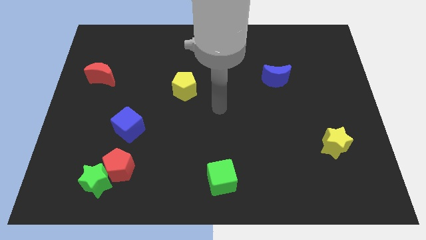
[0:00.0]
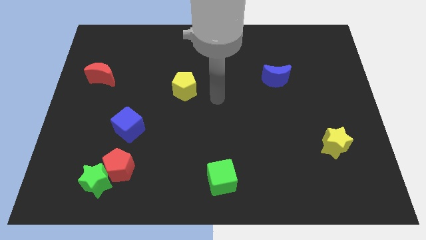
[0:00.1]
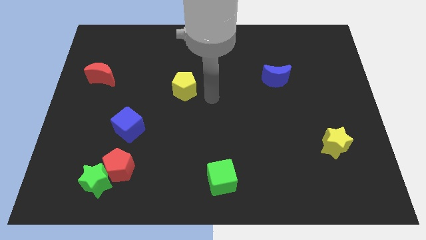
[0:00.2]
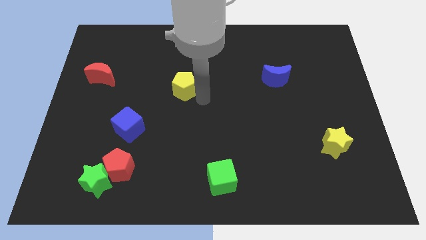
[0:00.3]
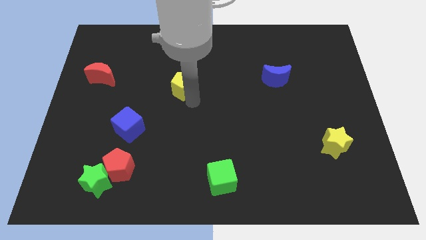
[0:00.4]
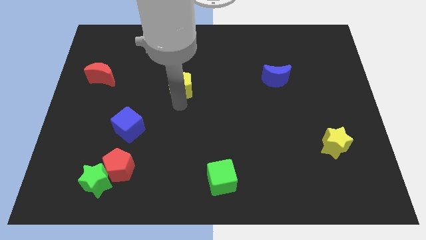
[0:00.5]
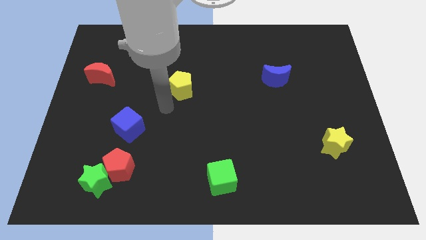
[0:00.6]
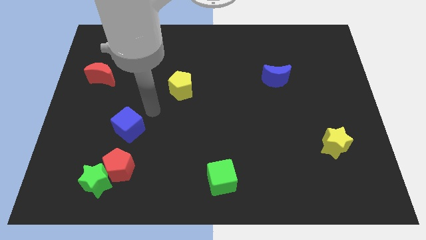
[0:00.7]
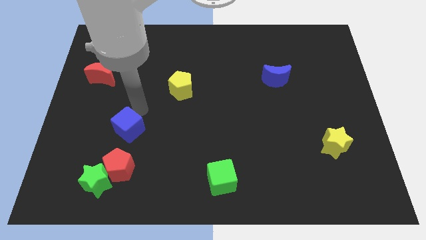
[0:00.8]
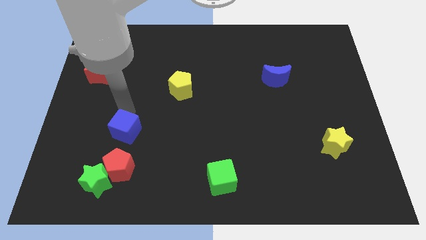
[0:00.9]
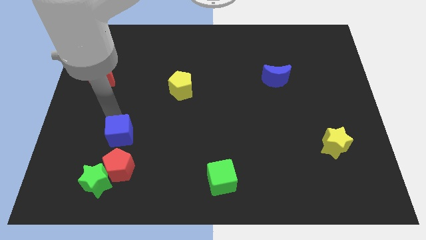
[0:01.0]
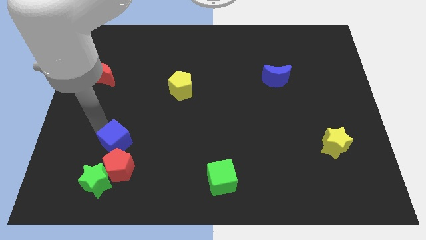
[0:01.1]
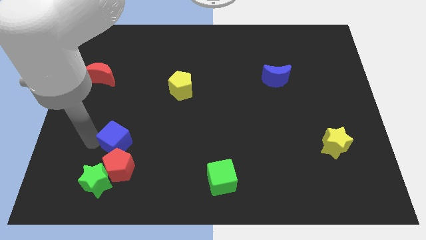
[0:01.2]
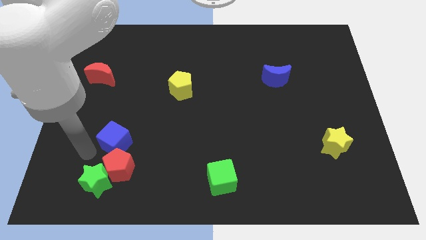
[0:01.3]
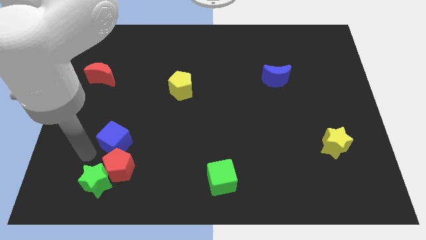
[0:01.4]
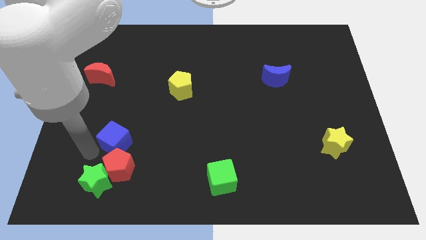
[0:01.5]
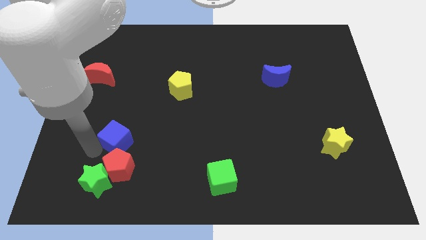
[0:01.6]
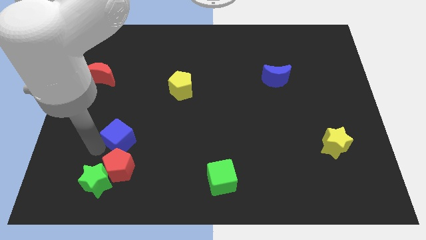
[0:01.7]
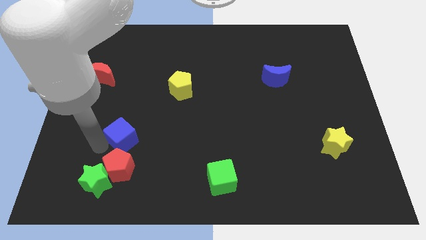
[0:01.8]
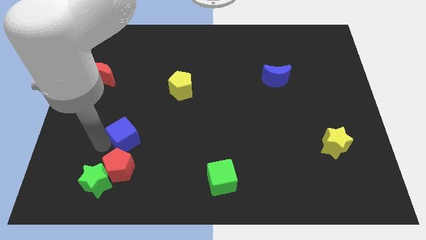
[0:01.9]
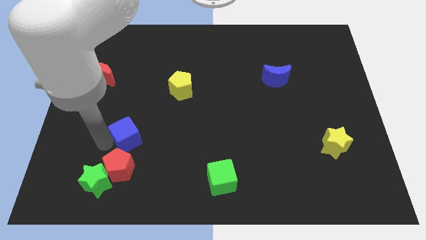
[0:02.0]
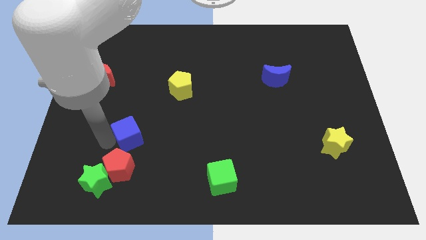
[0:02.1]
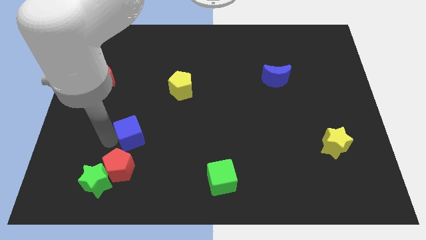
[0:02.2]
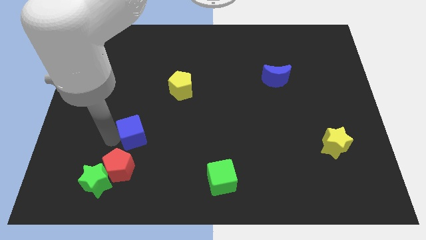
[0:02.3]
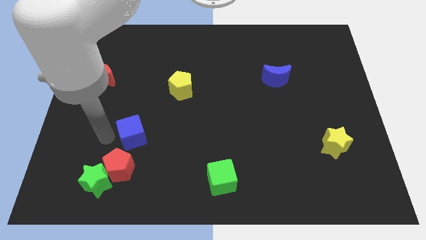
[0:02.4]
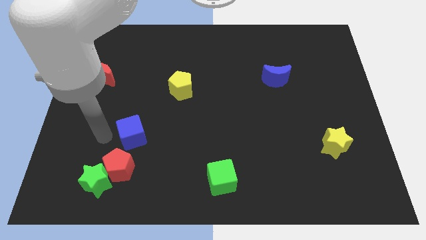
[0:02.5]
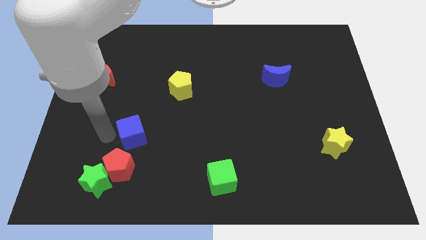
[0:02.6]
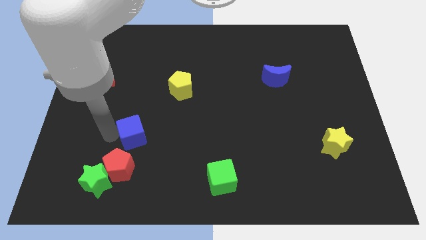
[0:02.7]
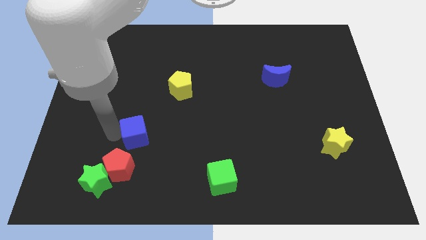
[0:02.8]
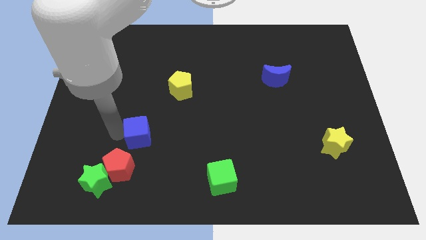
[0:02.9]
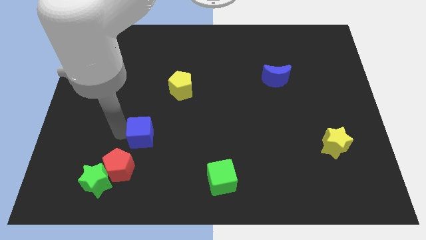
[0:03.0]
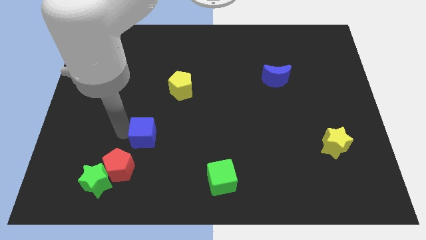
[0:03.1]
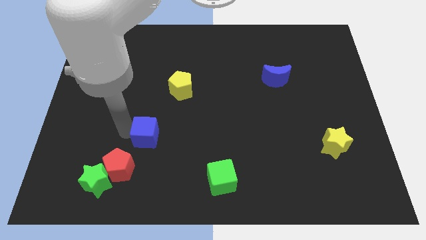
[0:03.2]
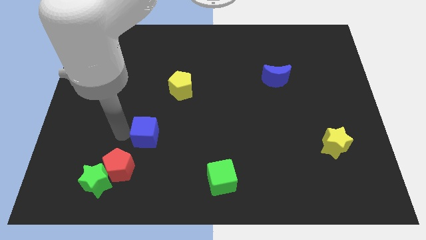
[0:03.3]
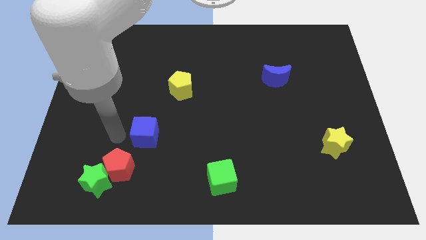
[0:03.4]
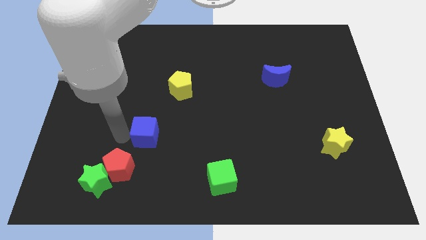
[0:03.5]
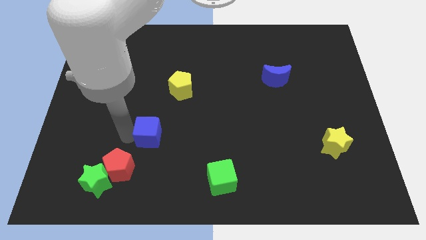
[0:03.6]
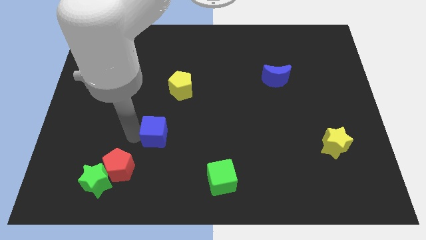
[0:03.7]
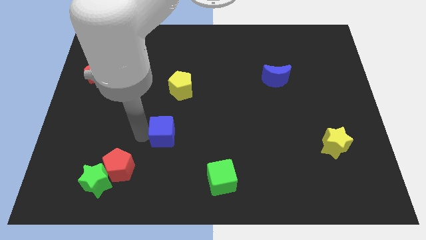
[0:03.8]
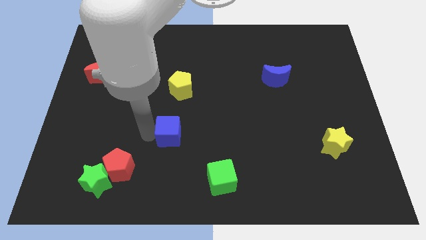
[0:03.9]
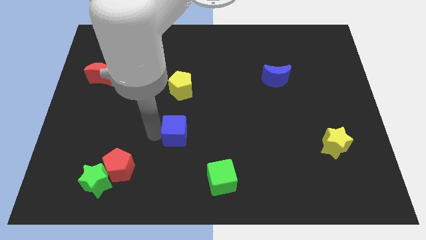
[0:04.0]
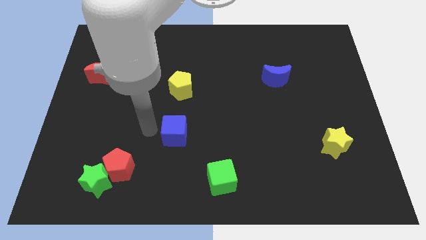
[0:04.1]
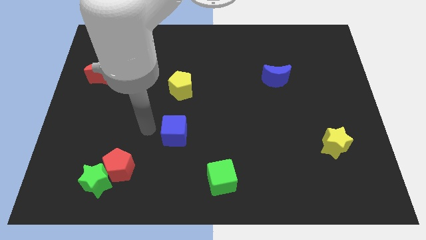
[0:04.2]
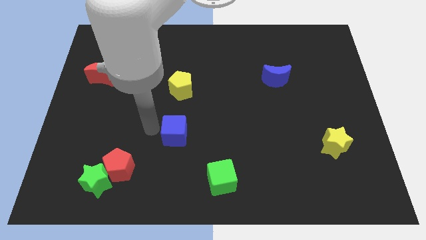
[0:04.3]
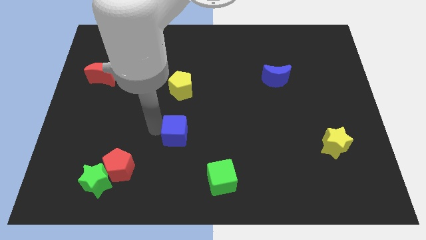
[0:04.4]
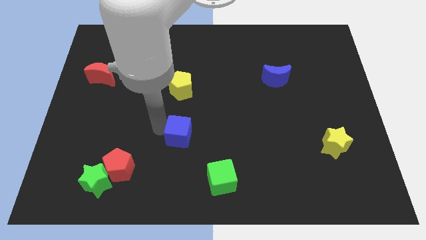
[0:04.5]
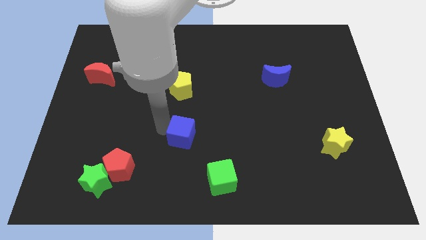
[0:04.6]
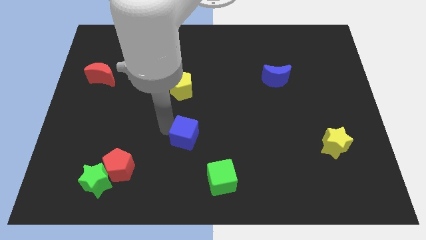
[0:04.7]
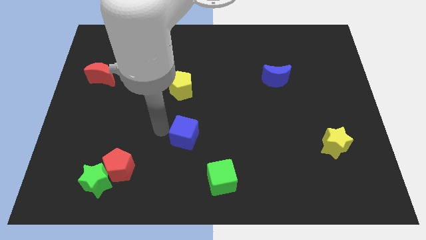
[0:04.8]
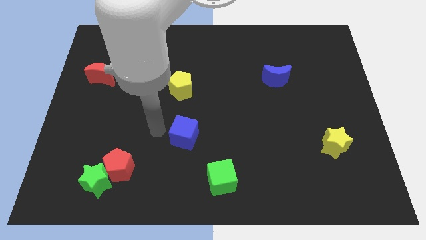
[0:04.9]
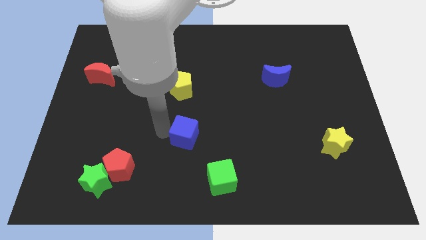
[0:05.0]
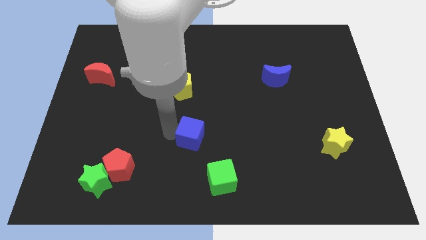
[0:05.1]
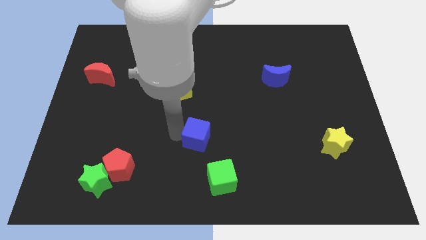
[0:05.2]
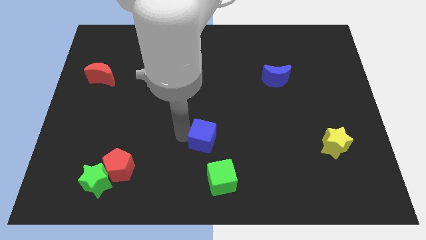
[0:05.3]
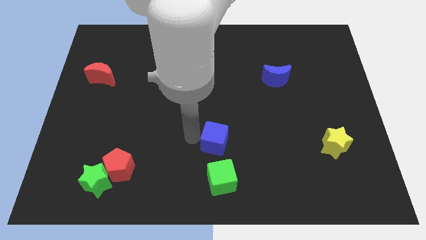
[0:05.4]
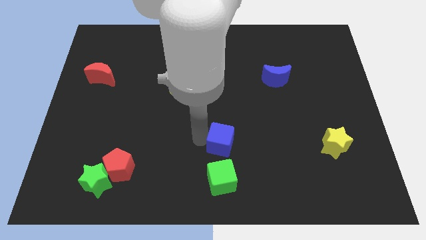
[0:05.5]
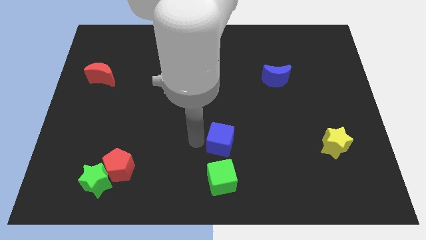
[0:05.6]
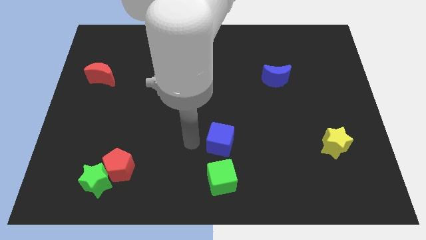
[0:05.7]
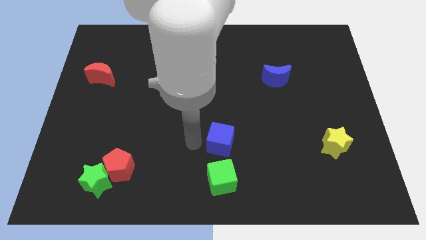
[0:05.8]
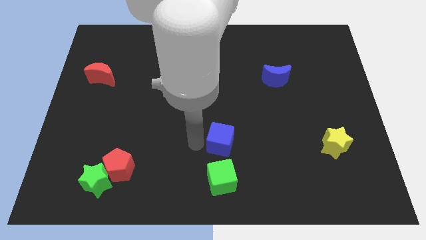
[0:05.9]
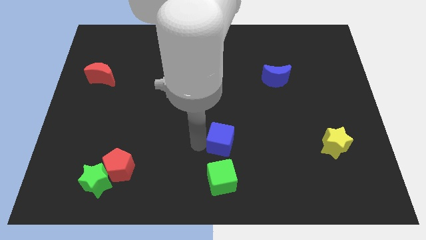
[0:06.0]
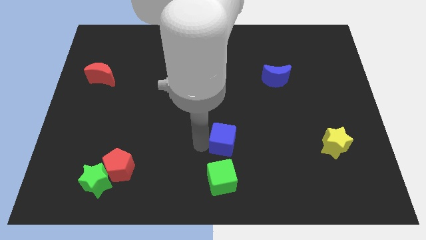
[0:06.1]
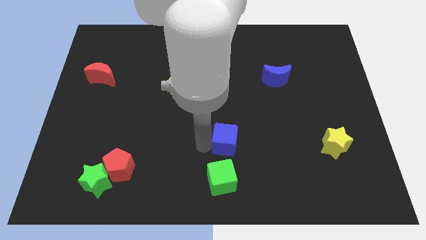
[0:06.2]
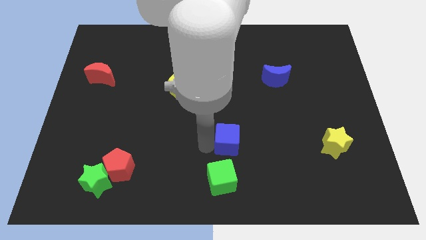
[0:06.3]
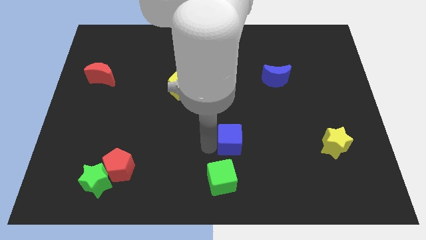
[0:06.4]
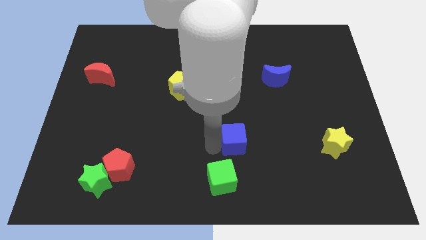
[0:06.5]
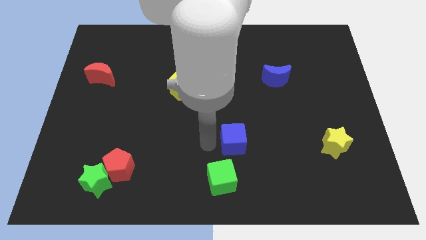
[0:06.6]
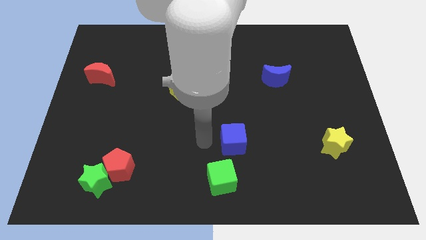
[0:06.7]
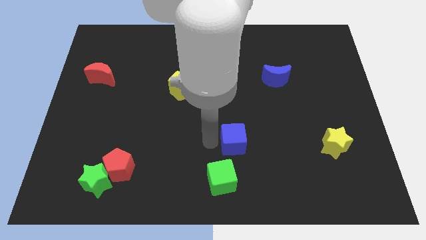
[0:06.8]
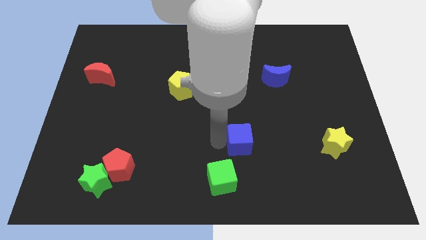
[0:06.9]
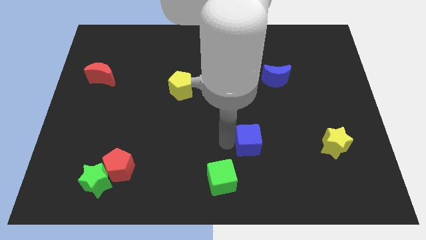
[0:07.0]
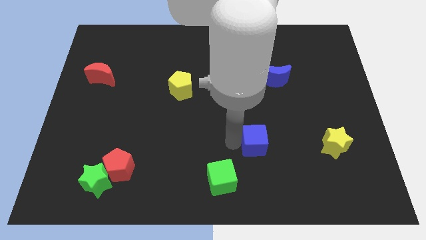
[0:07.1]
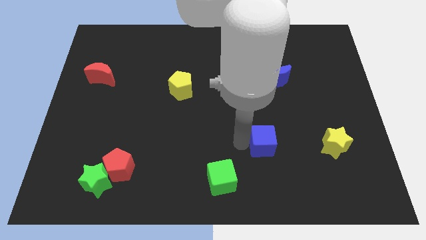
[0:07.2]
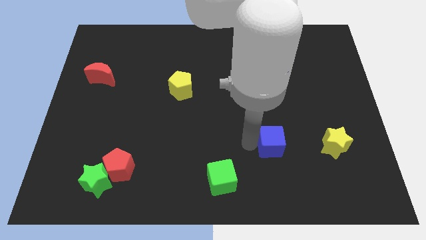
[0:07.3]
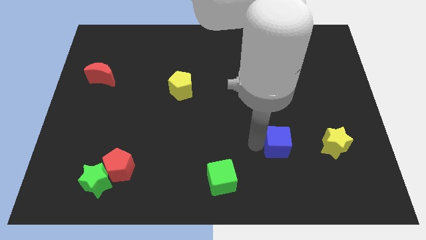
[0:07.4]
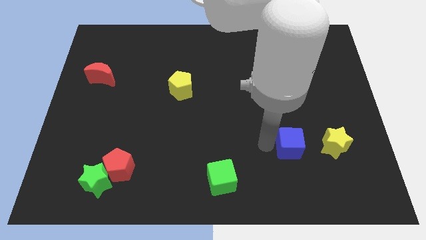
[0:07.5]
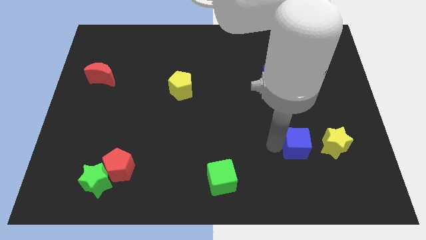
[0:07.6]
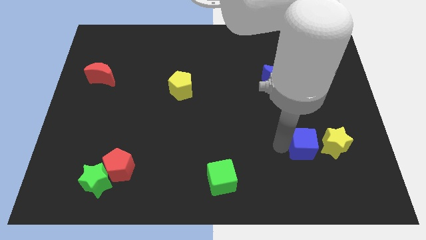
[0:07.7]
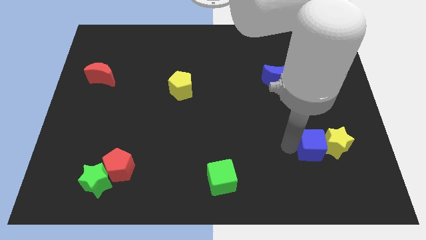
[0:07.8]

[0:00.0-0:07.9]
push the blue cube close to the yellow star

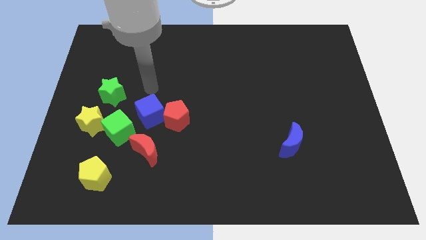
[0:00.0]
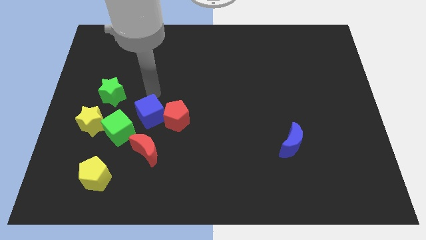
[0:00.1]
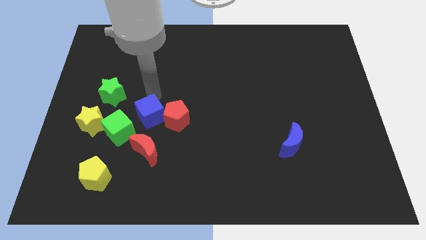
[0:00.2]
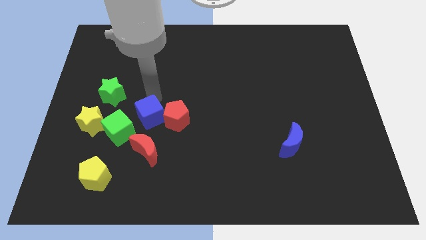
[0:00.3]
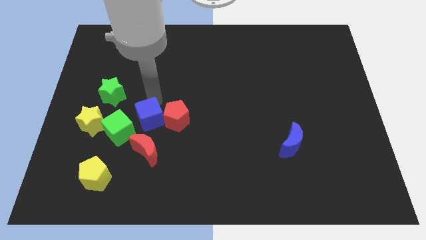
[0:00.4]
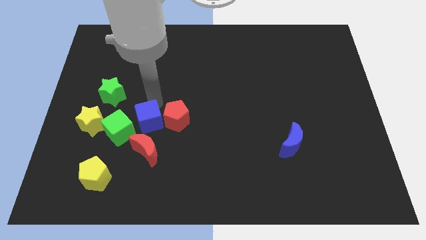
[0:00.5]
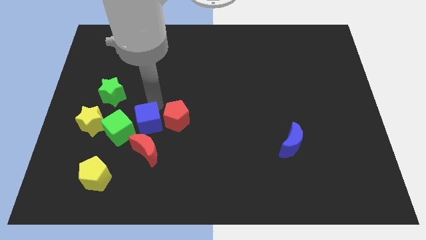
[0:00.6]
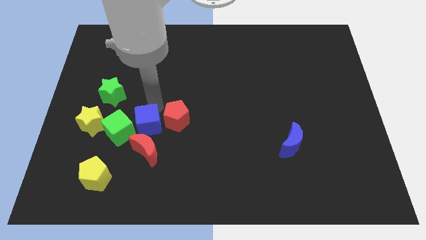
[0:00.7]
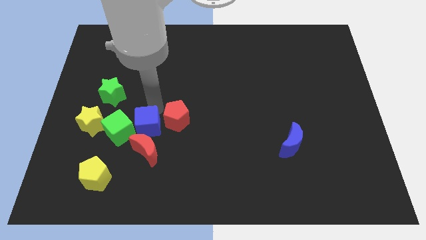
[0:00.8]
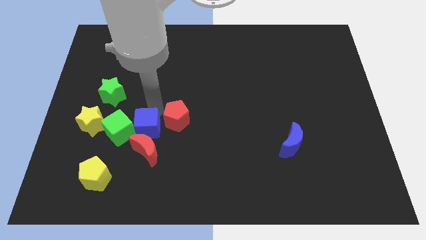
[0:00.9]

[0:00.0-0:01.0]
push the blue cube next to the red moon
